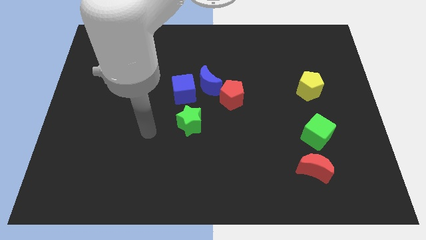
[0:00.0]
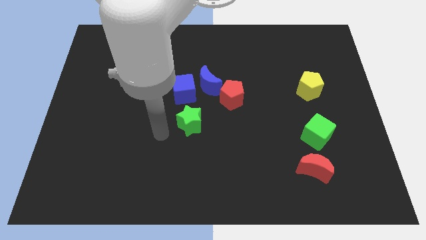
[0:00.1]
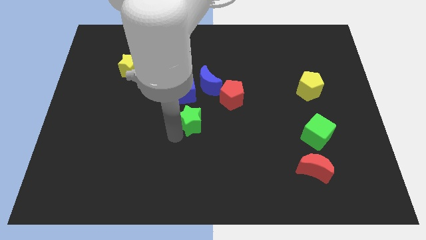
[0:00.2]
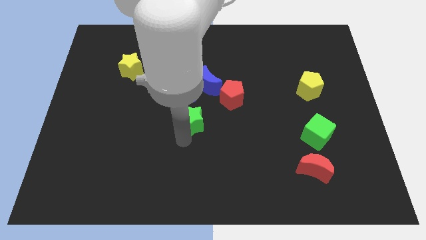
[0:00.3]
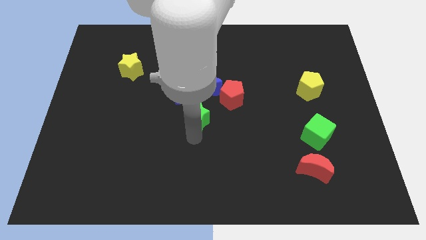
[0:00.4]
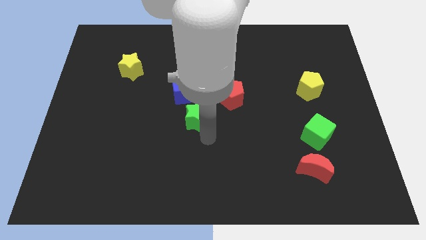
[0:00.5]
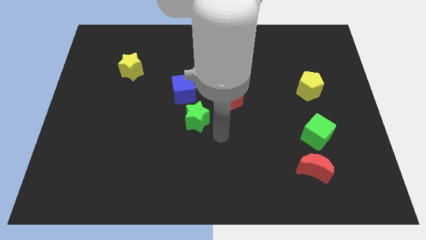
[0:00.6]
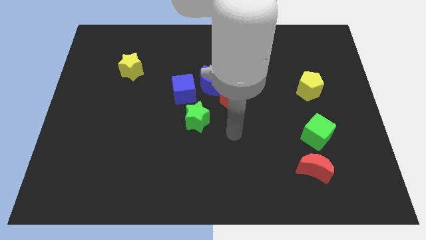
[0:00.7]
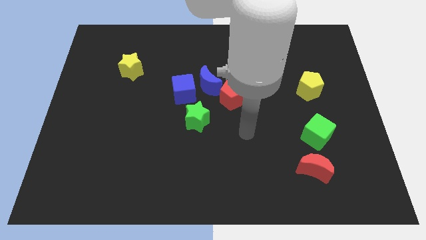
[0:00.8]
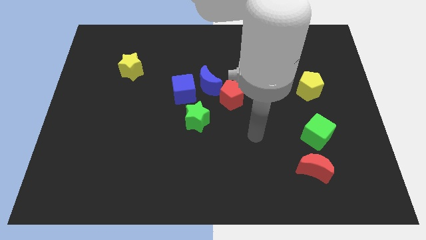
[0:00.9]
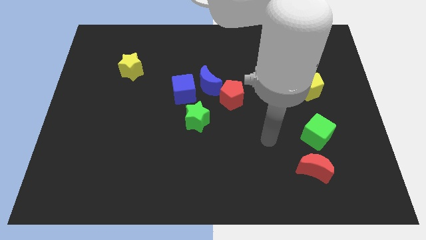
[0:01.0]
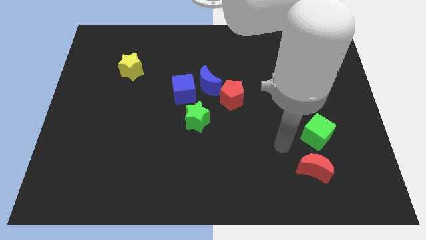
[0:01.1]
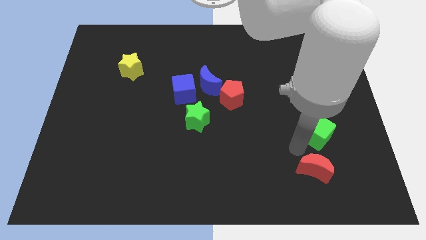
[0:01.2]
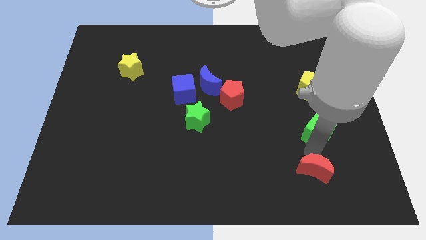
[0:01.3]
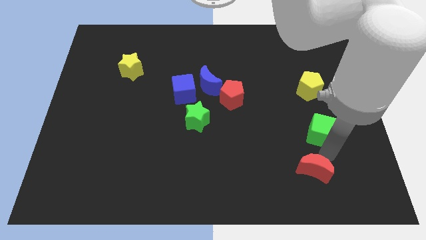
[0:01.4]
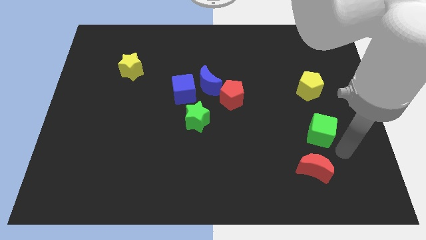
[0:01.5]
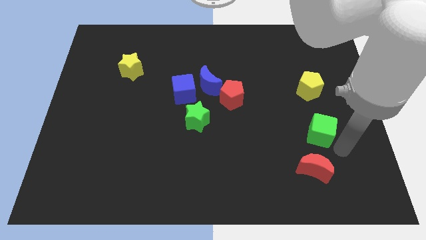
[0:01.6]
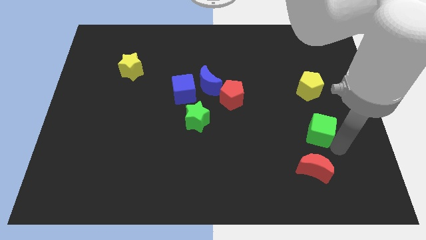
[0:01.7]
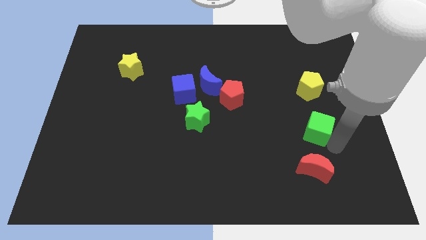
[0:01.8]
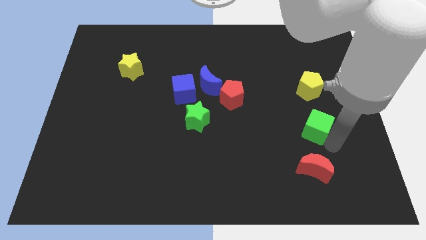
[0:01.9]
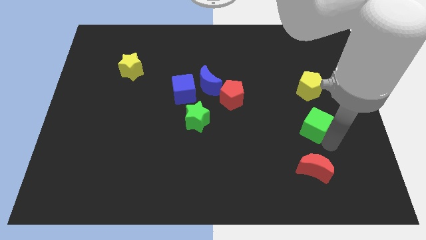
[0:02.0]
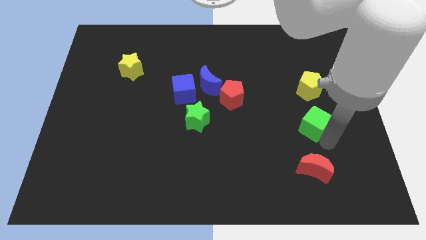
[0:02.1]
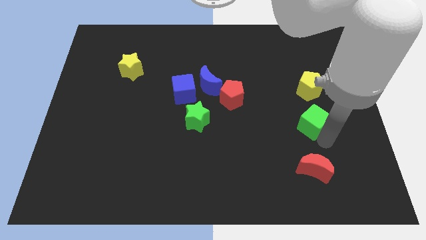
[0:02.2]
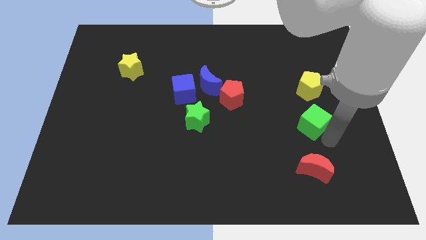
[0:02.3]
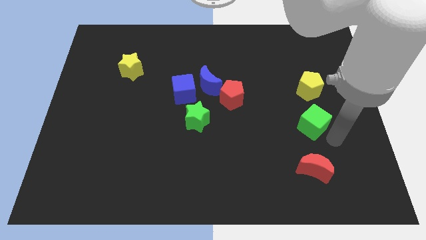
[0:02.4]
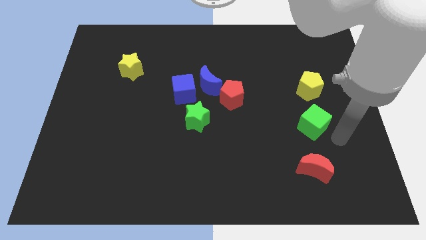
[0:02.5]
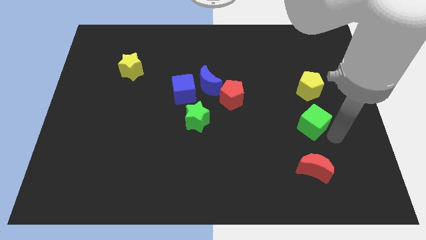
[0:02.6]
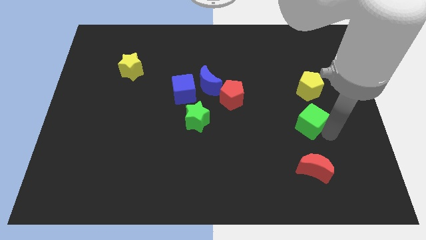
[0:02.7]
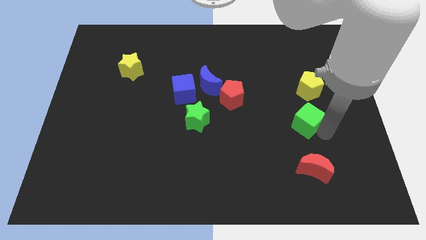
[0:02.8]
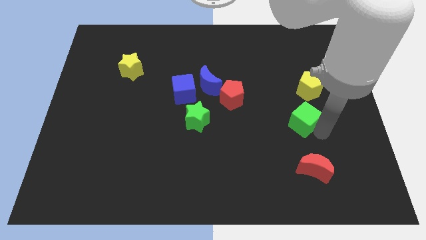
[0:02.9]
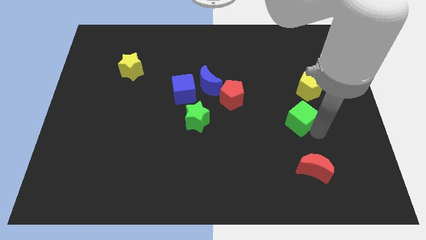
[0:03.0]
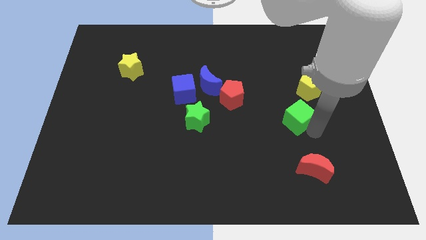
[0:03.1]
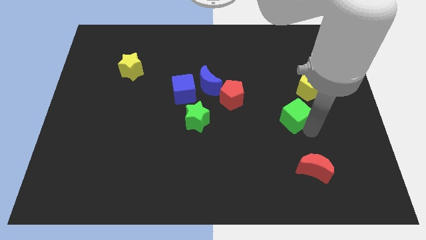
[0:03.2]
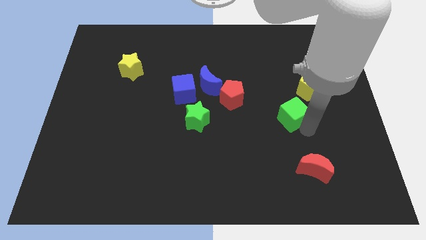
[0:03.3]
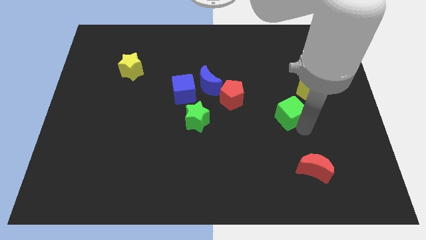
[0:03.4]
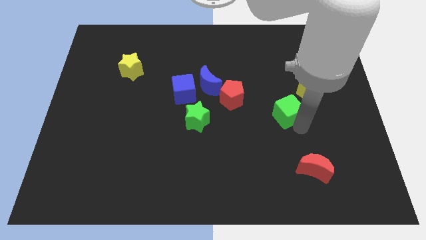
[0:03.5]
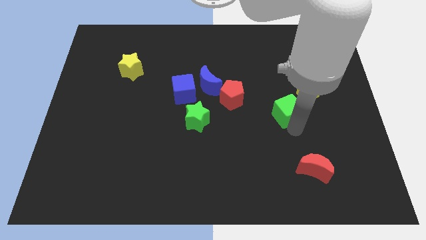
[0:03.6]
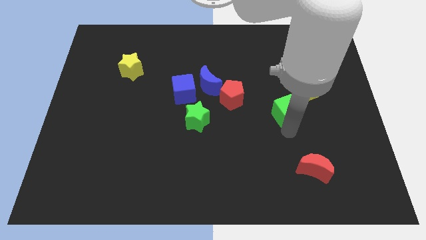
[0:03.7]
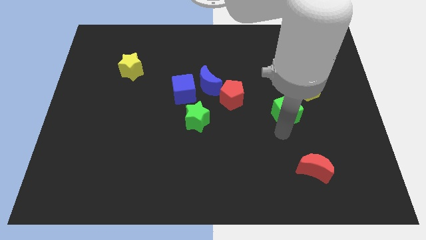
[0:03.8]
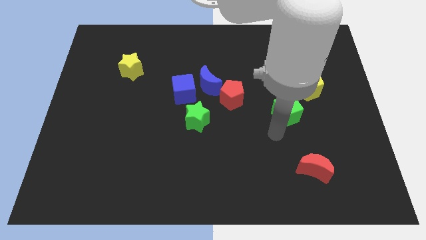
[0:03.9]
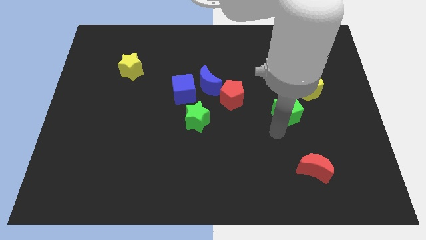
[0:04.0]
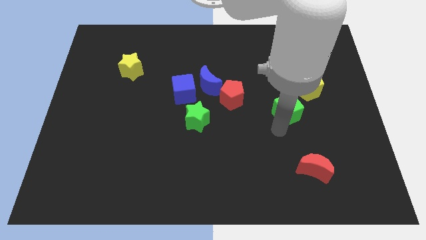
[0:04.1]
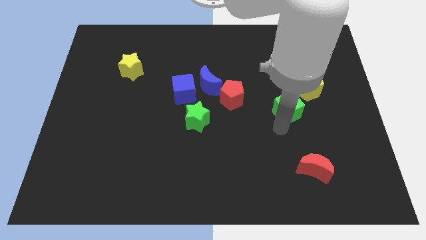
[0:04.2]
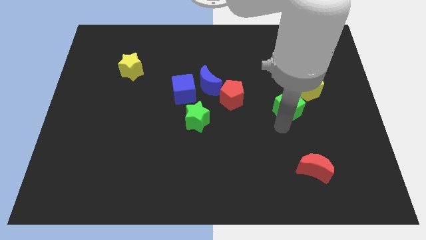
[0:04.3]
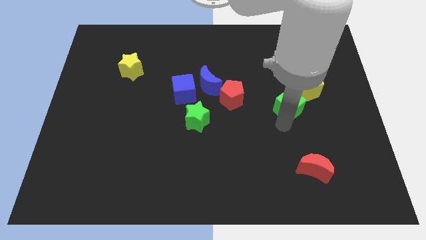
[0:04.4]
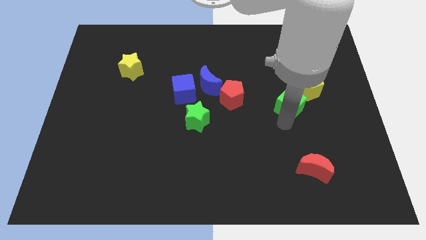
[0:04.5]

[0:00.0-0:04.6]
move the green cube up a bit

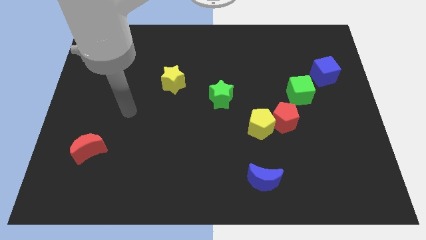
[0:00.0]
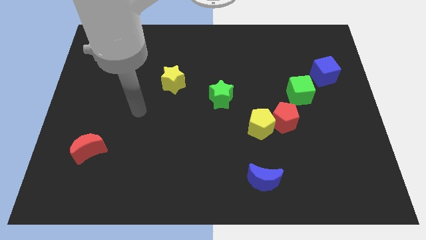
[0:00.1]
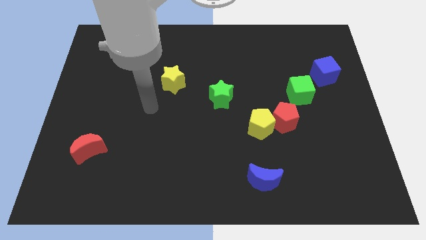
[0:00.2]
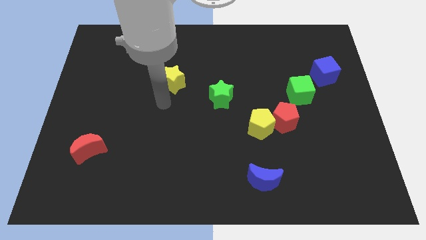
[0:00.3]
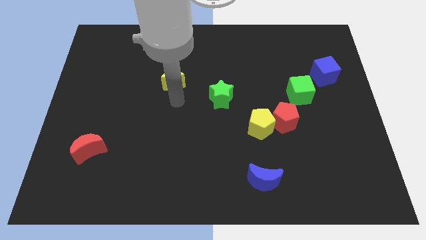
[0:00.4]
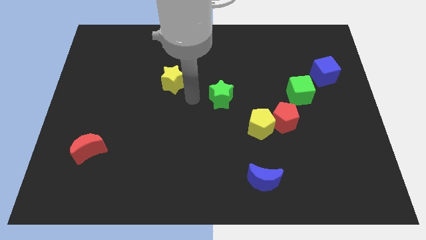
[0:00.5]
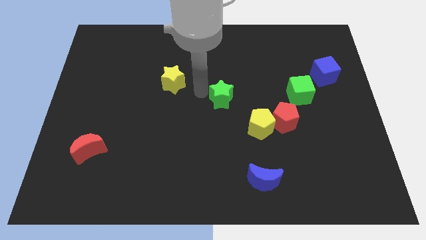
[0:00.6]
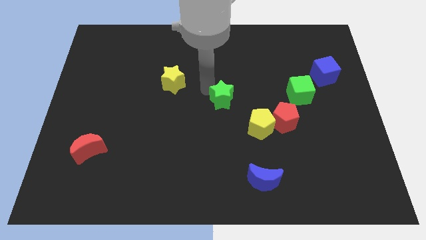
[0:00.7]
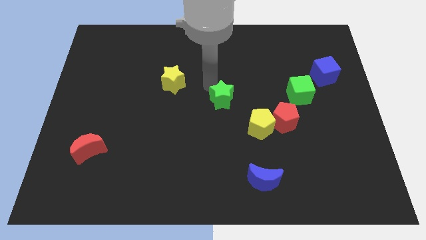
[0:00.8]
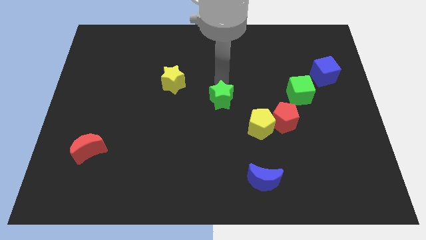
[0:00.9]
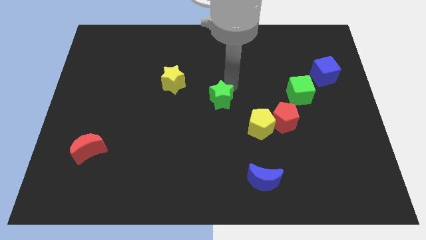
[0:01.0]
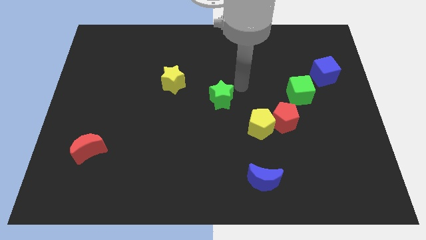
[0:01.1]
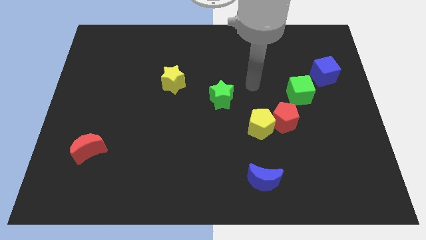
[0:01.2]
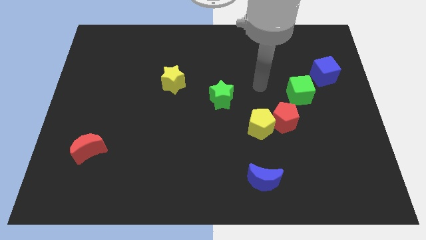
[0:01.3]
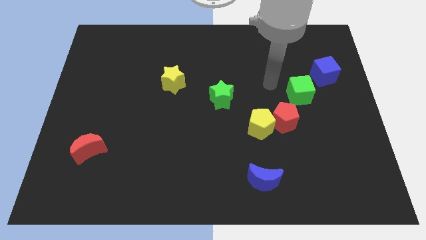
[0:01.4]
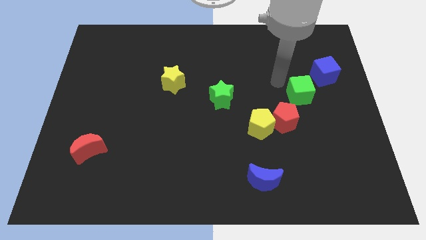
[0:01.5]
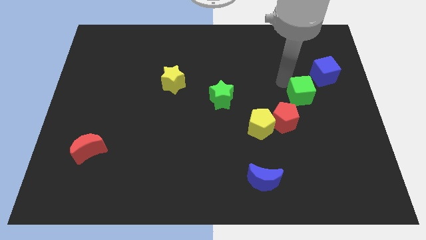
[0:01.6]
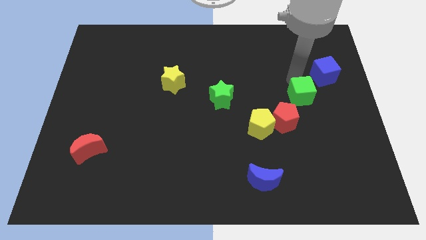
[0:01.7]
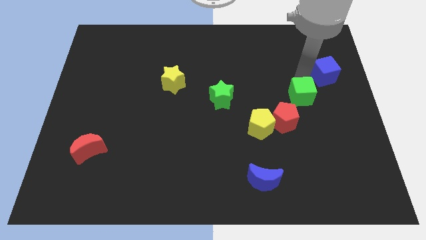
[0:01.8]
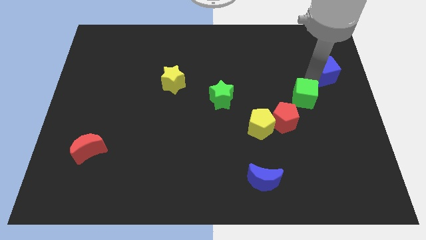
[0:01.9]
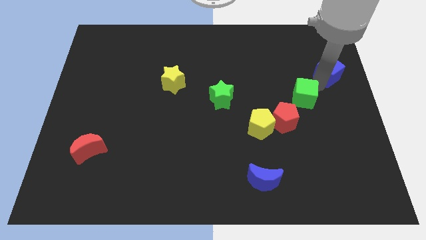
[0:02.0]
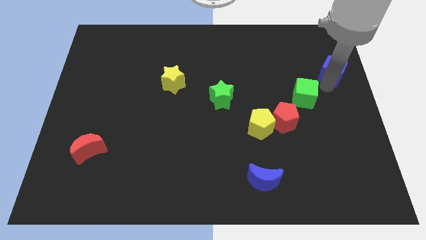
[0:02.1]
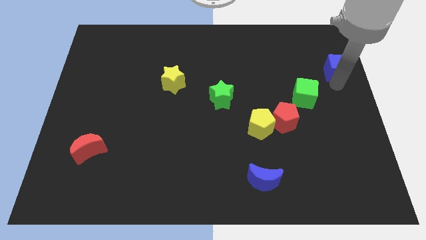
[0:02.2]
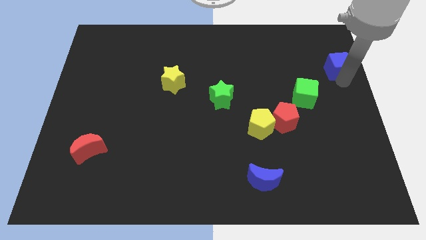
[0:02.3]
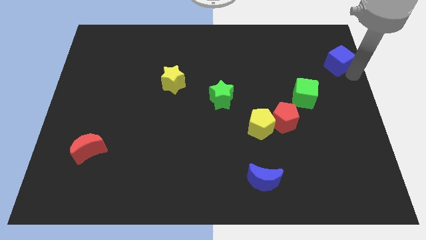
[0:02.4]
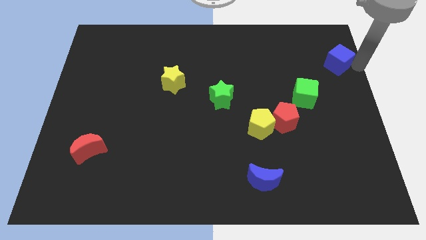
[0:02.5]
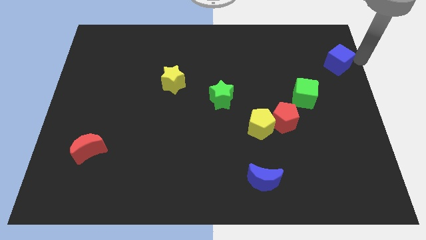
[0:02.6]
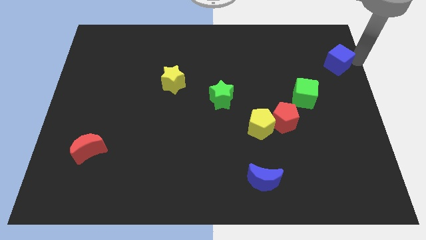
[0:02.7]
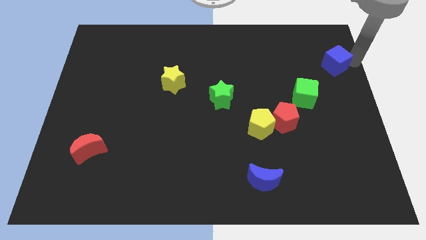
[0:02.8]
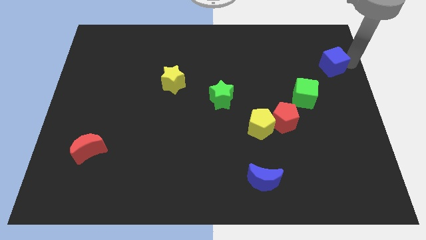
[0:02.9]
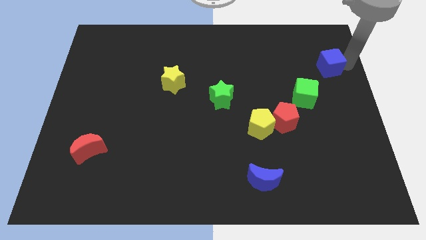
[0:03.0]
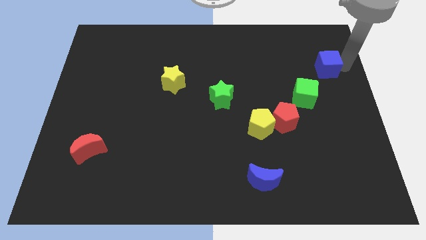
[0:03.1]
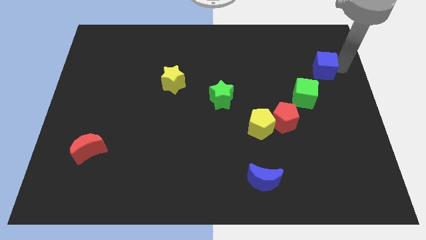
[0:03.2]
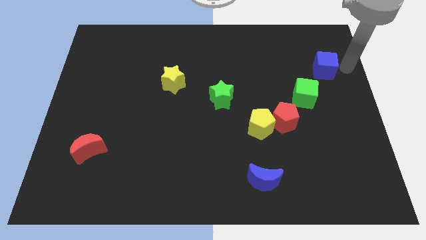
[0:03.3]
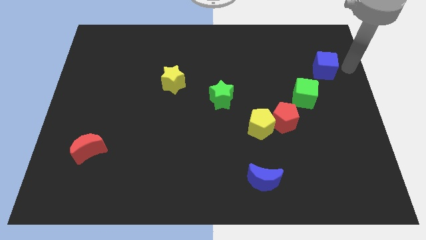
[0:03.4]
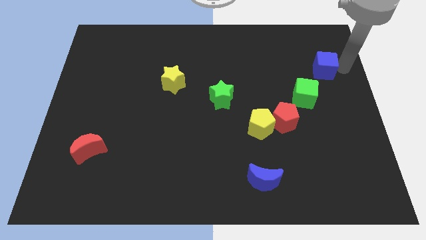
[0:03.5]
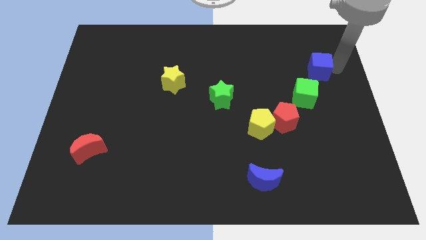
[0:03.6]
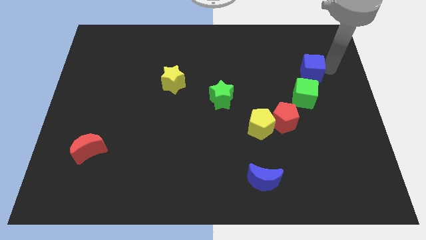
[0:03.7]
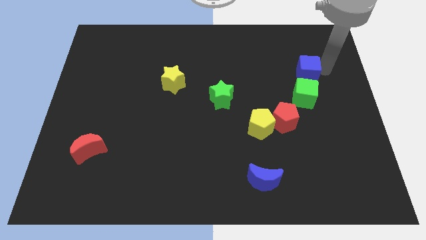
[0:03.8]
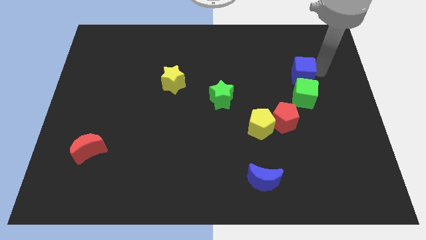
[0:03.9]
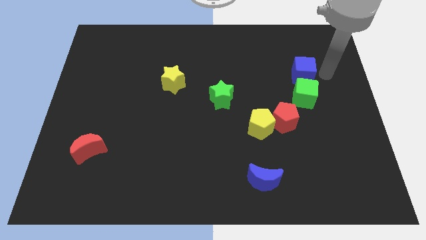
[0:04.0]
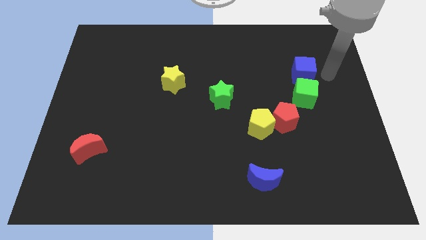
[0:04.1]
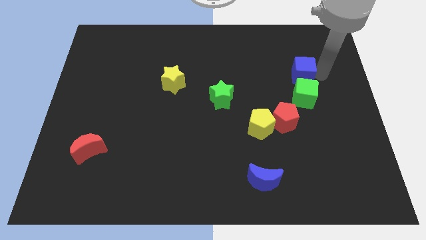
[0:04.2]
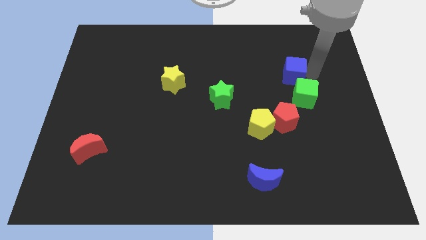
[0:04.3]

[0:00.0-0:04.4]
slightly push the blue cube left
